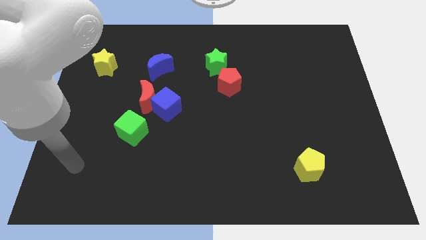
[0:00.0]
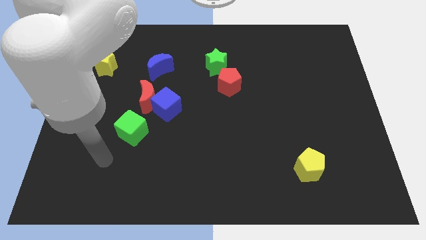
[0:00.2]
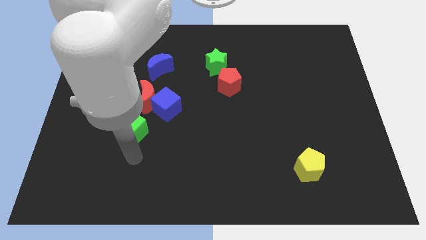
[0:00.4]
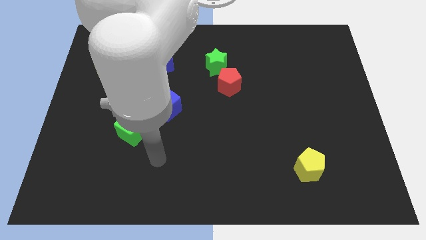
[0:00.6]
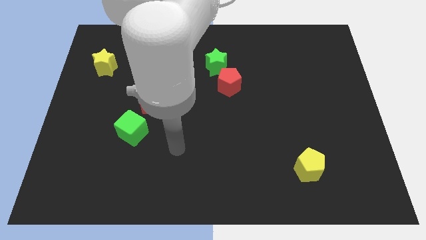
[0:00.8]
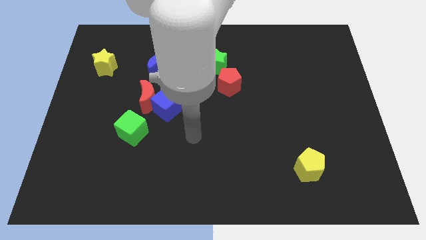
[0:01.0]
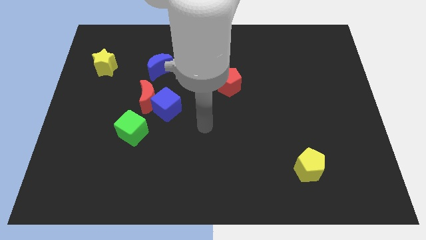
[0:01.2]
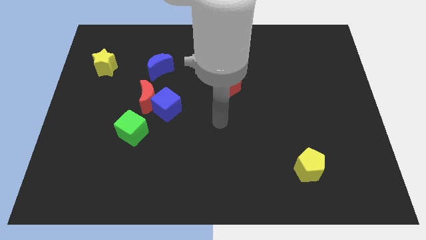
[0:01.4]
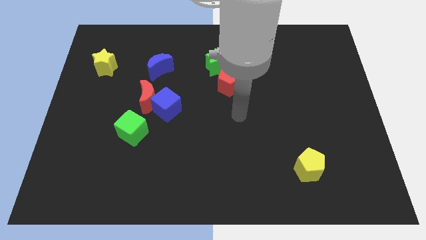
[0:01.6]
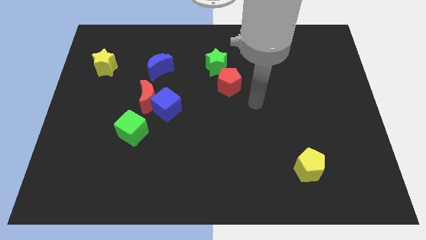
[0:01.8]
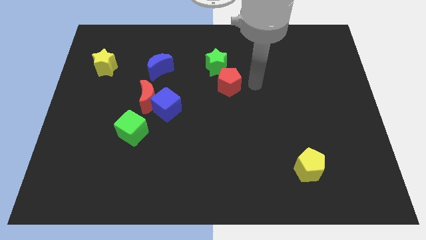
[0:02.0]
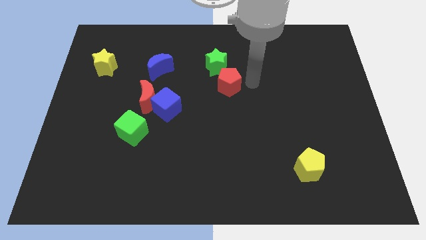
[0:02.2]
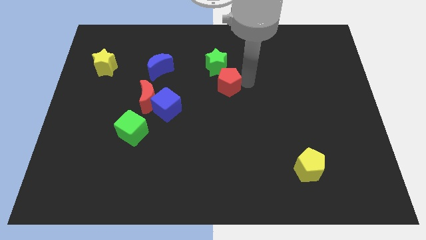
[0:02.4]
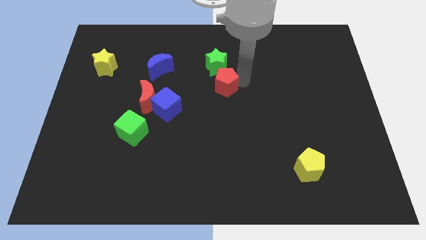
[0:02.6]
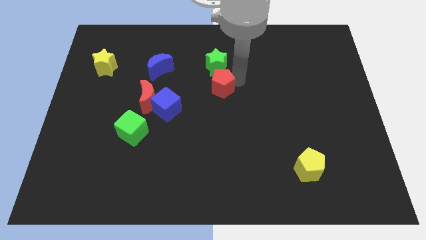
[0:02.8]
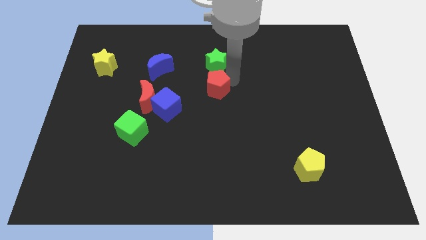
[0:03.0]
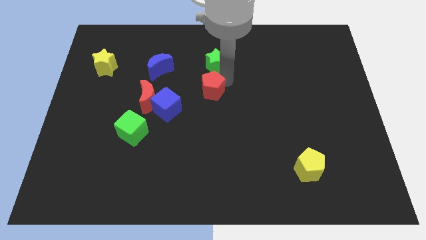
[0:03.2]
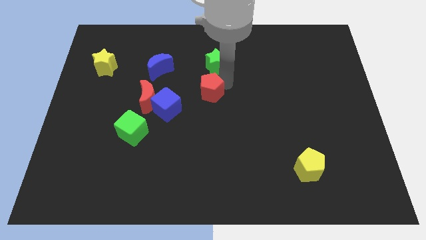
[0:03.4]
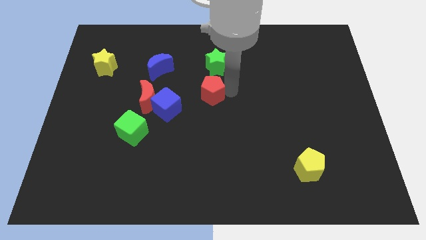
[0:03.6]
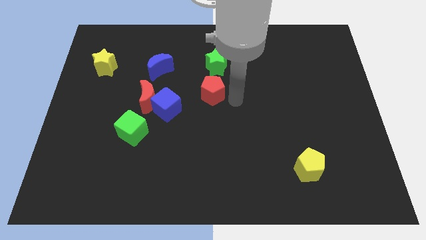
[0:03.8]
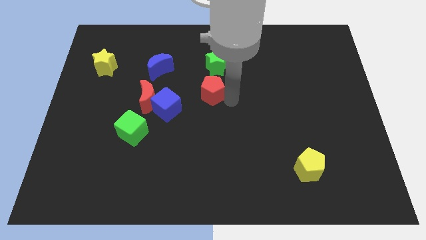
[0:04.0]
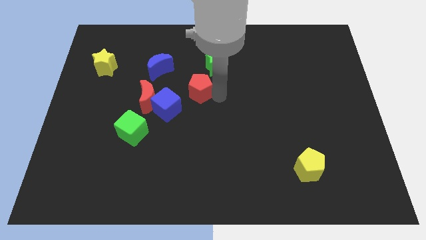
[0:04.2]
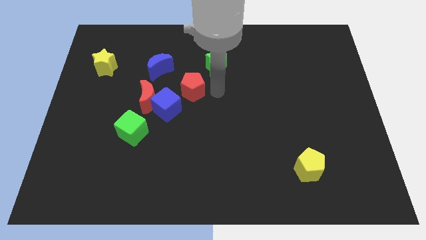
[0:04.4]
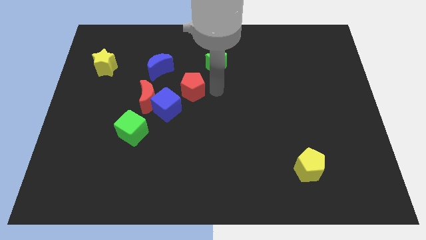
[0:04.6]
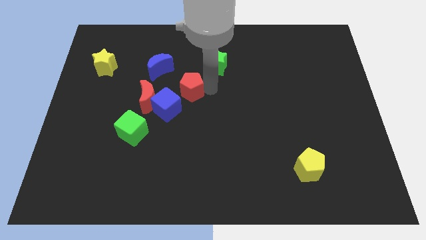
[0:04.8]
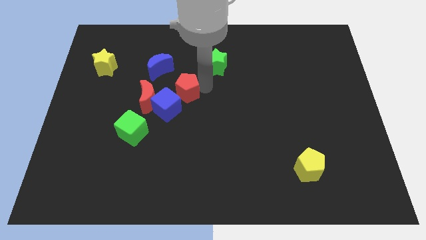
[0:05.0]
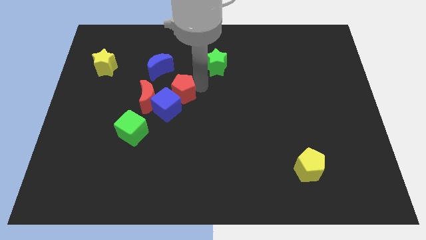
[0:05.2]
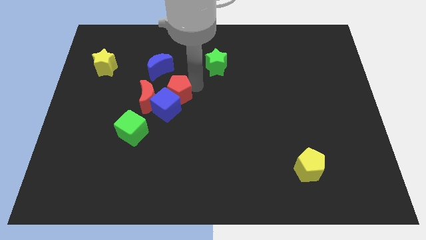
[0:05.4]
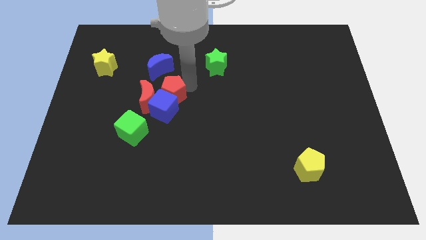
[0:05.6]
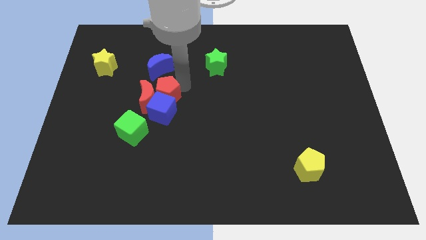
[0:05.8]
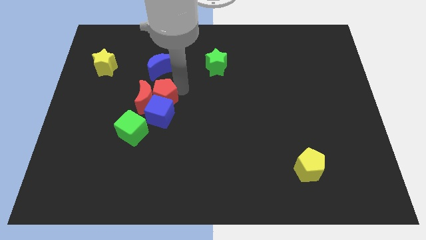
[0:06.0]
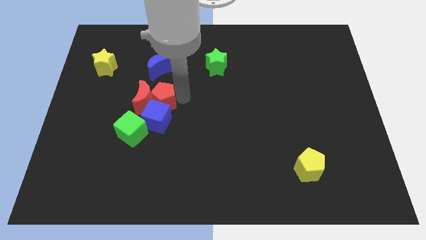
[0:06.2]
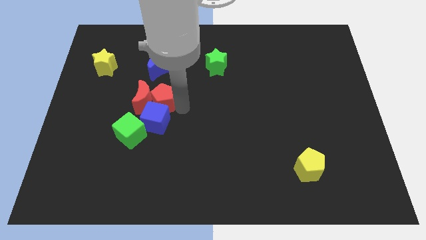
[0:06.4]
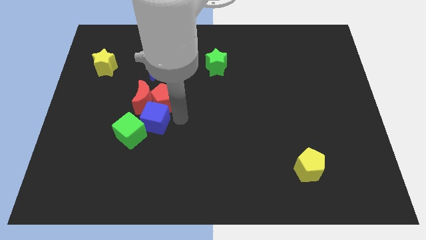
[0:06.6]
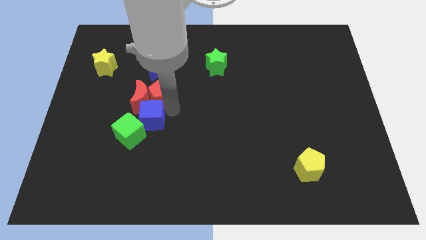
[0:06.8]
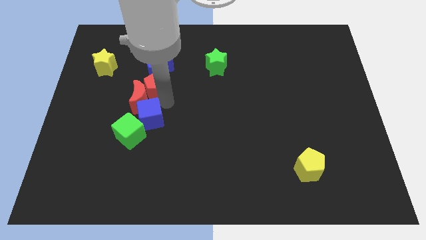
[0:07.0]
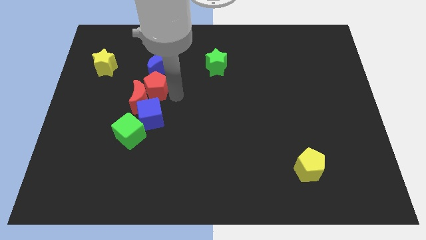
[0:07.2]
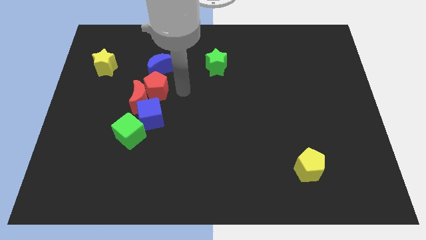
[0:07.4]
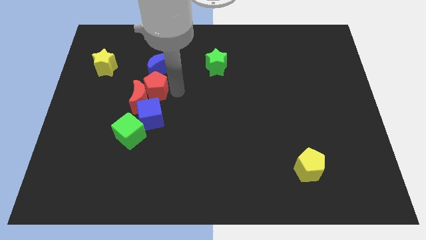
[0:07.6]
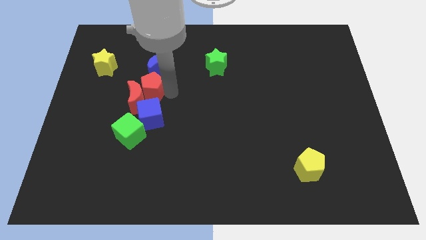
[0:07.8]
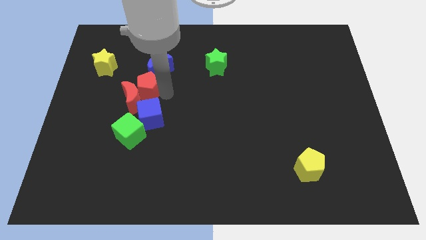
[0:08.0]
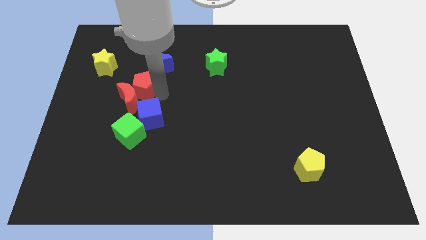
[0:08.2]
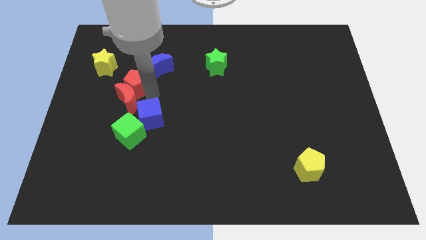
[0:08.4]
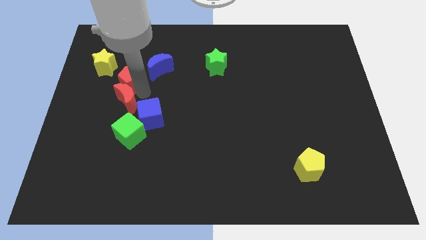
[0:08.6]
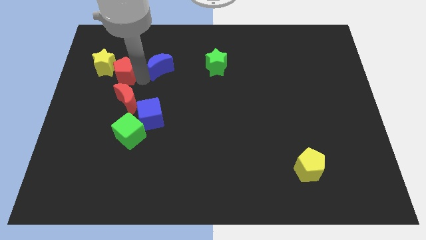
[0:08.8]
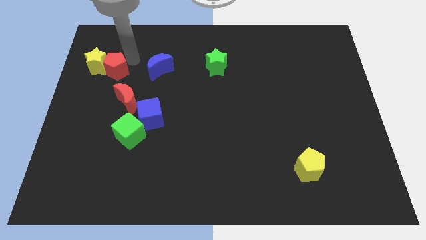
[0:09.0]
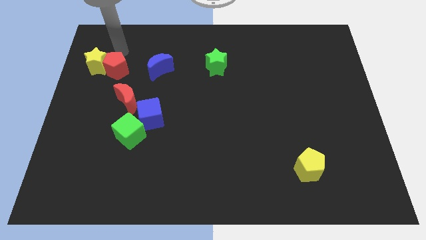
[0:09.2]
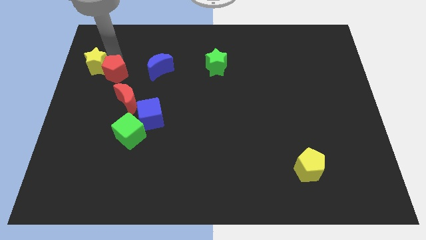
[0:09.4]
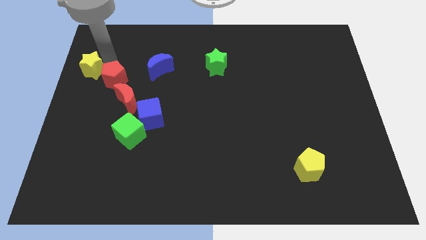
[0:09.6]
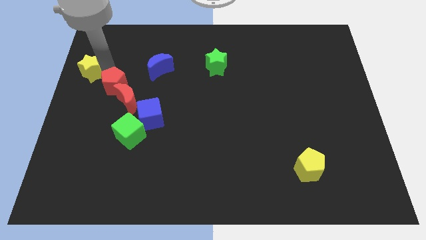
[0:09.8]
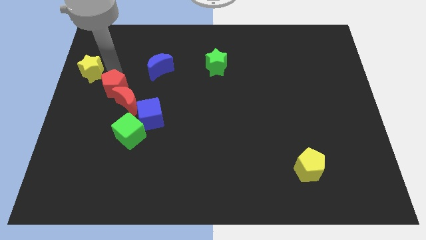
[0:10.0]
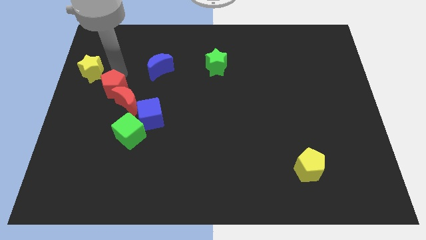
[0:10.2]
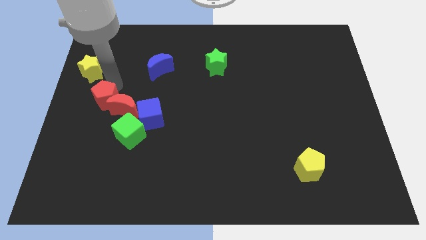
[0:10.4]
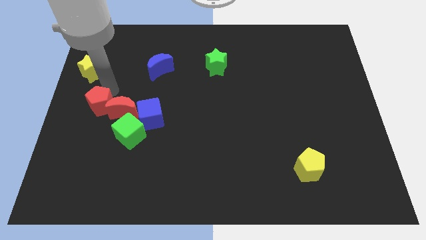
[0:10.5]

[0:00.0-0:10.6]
push the red pentagon to the left of the blue cube

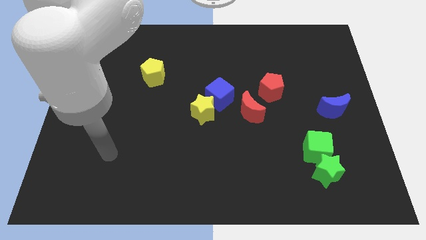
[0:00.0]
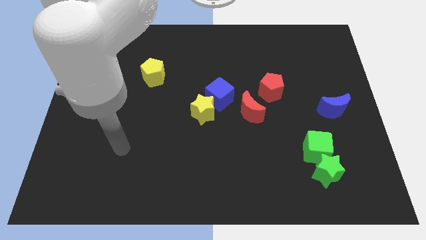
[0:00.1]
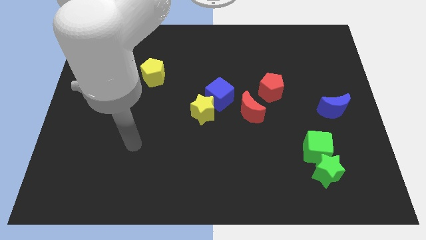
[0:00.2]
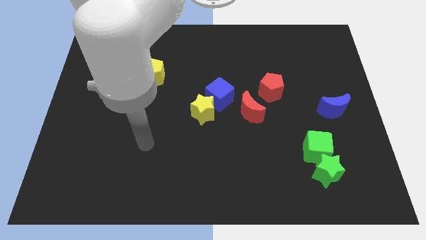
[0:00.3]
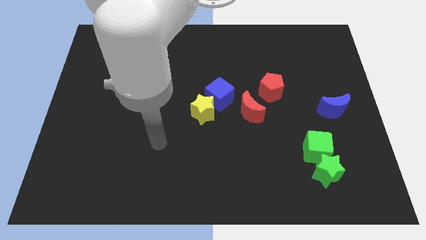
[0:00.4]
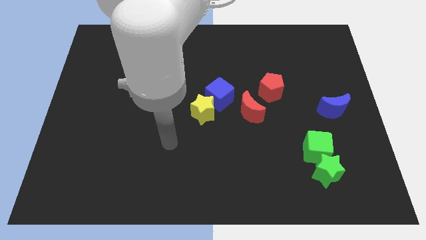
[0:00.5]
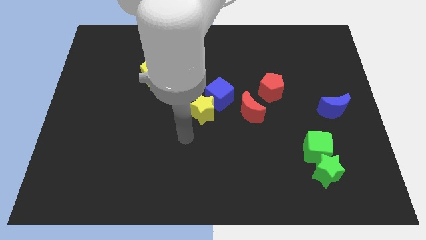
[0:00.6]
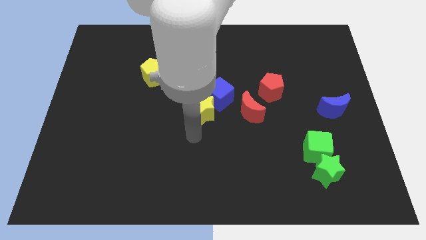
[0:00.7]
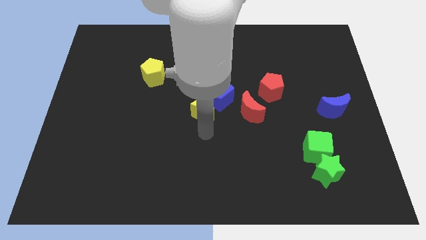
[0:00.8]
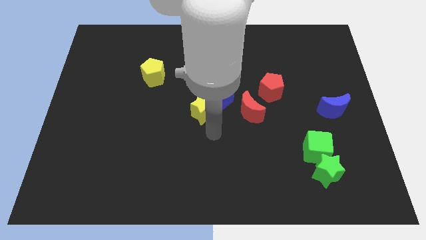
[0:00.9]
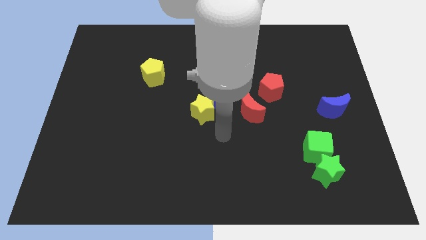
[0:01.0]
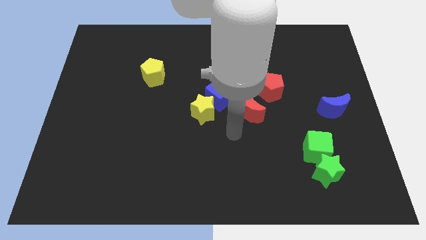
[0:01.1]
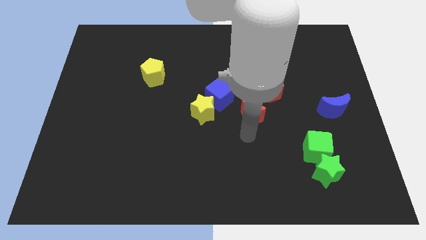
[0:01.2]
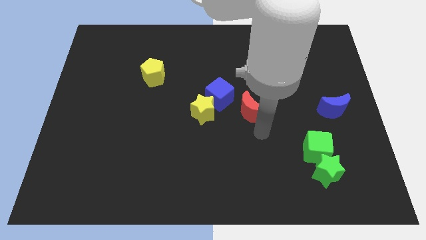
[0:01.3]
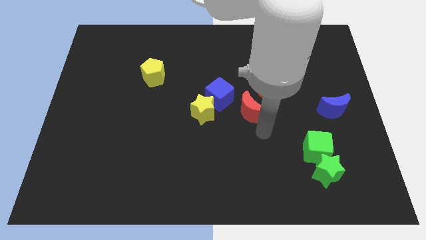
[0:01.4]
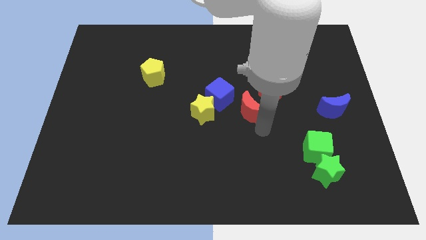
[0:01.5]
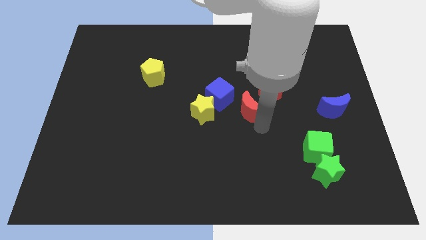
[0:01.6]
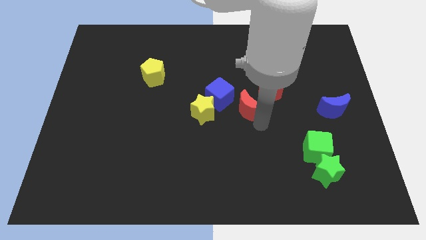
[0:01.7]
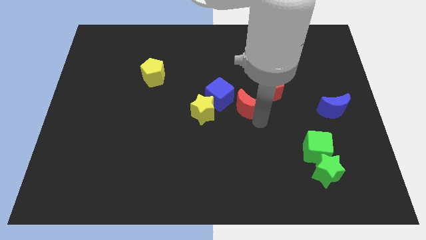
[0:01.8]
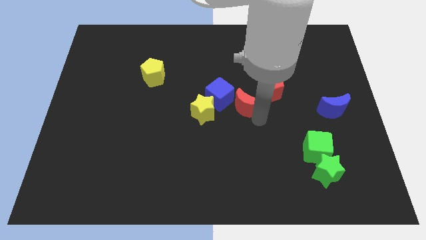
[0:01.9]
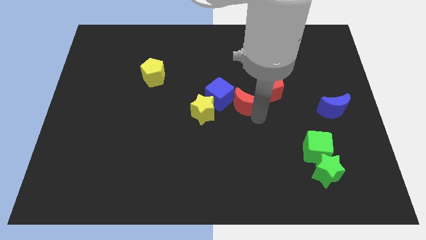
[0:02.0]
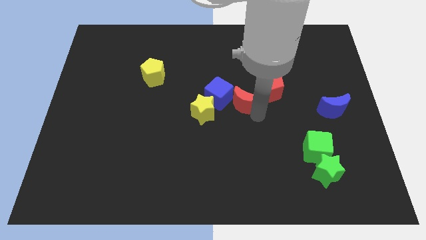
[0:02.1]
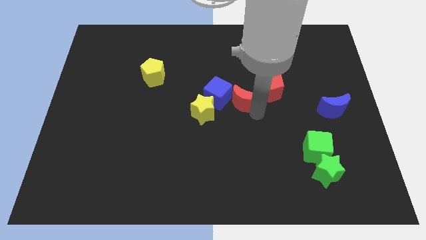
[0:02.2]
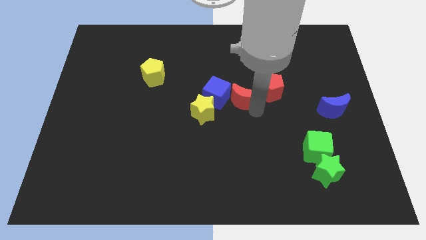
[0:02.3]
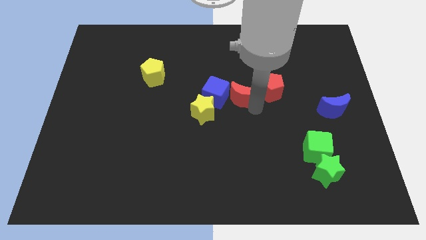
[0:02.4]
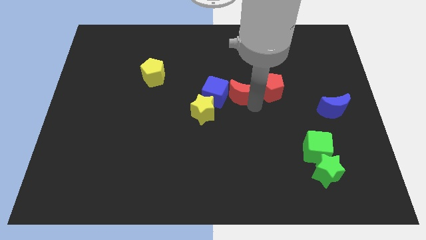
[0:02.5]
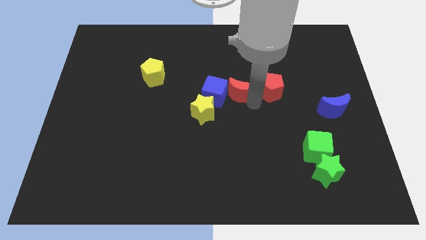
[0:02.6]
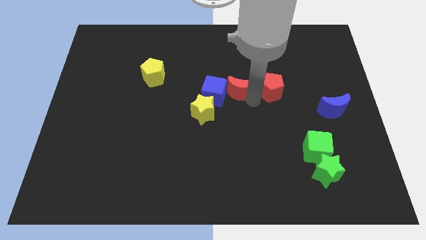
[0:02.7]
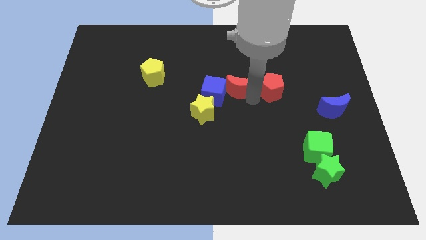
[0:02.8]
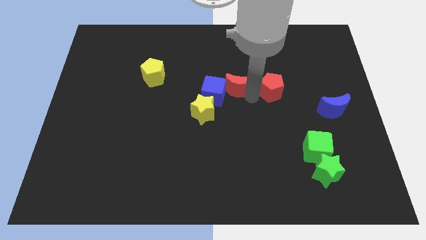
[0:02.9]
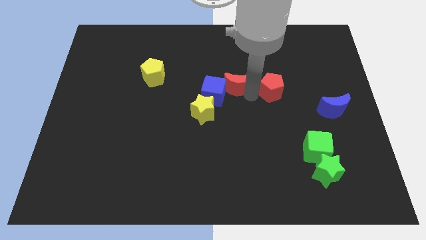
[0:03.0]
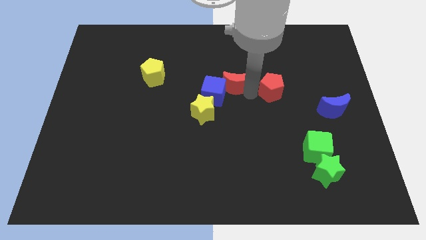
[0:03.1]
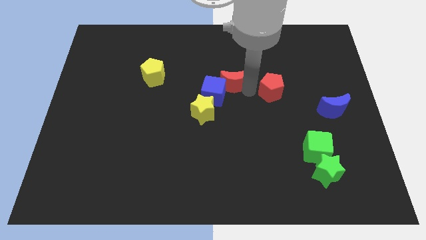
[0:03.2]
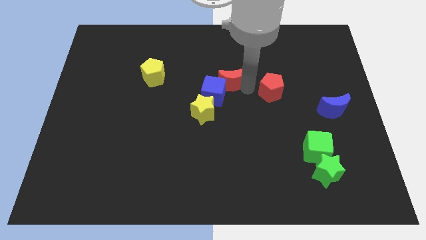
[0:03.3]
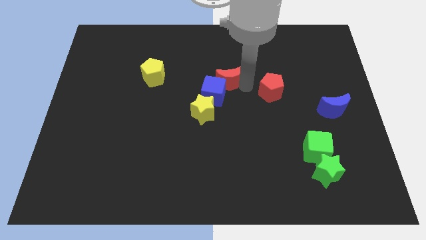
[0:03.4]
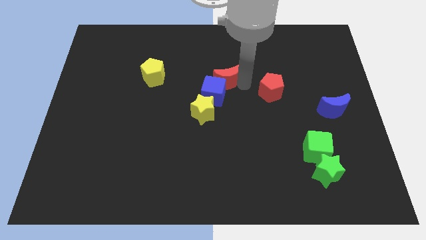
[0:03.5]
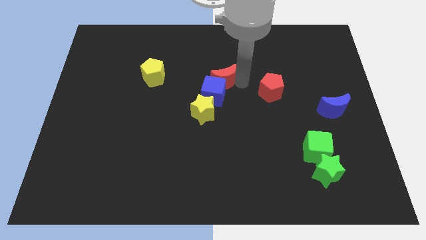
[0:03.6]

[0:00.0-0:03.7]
put the red moon above the yellow star
